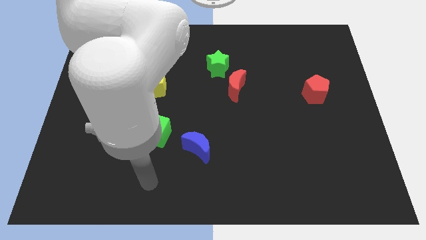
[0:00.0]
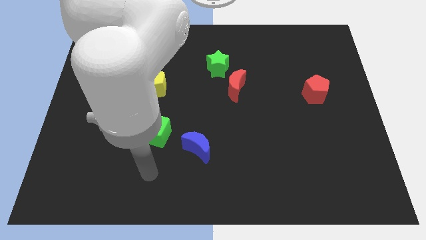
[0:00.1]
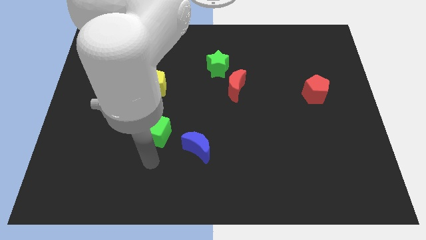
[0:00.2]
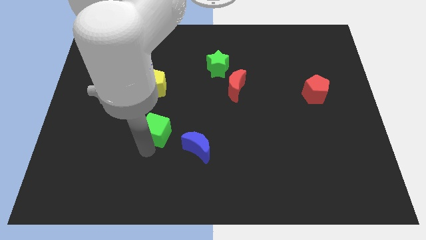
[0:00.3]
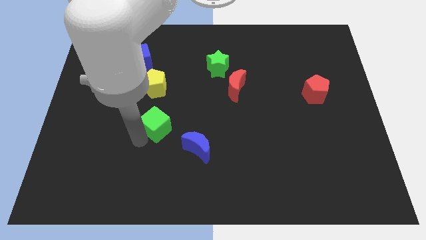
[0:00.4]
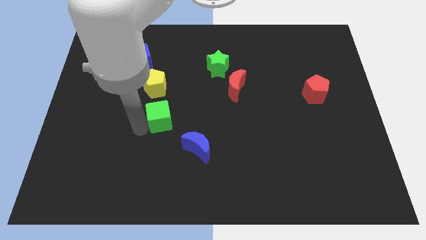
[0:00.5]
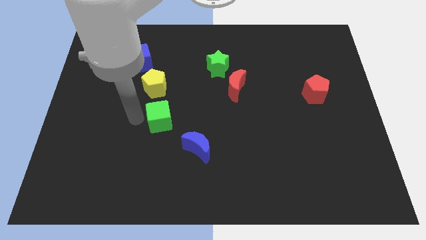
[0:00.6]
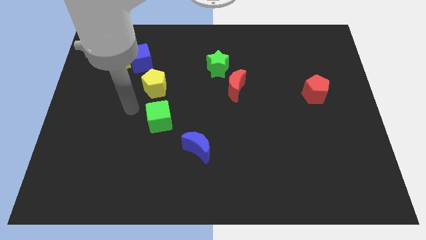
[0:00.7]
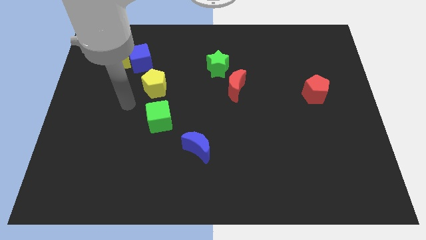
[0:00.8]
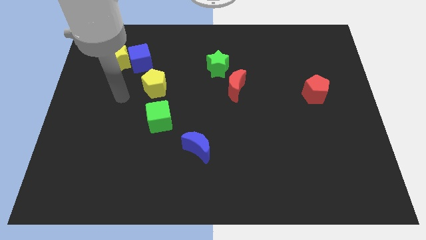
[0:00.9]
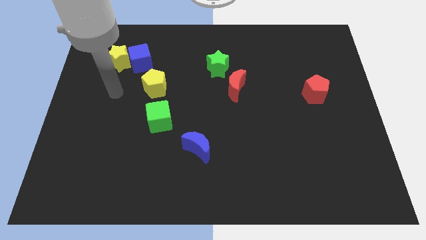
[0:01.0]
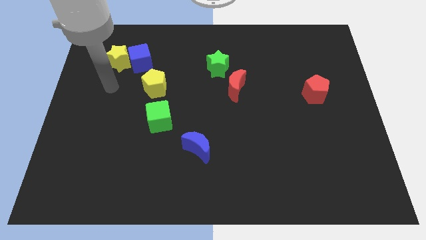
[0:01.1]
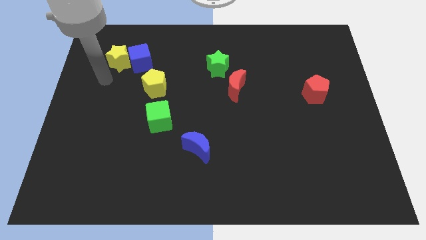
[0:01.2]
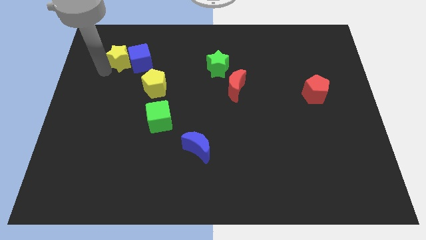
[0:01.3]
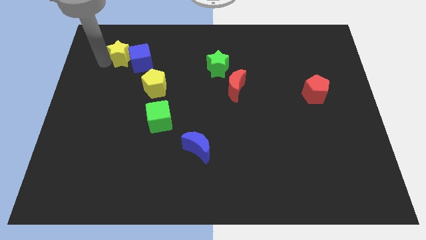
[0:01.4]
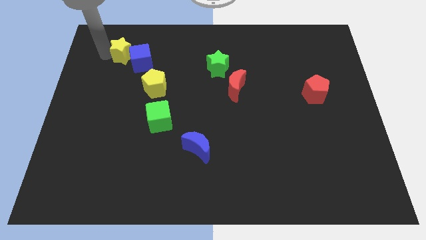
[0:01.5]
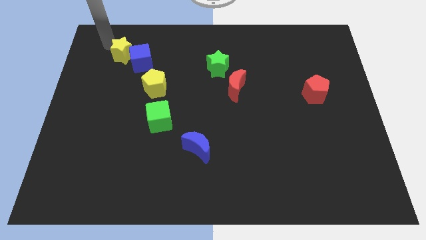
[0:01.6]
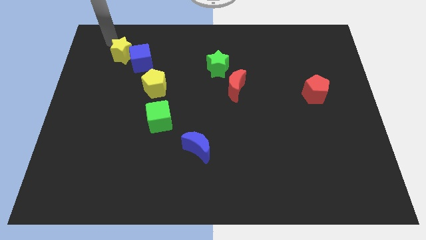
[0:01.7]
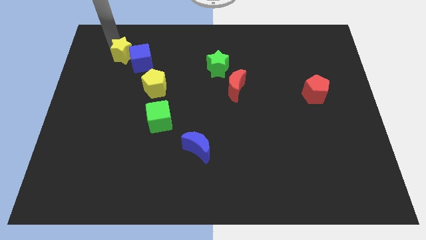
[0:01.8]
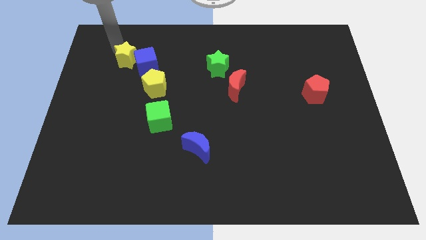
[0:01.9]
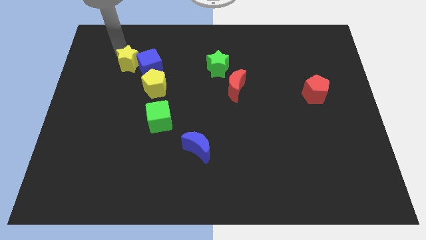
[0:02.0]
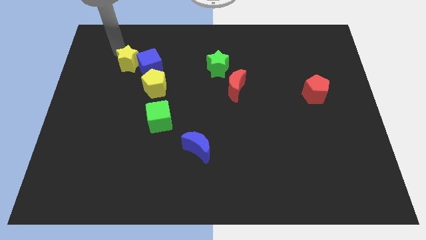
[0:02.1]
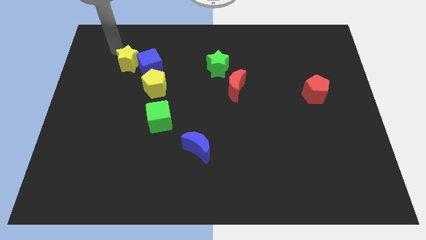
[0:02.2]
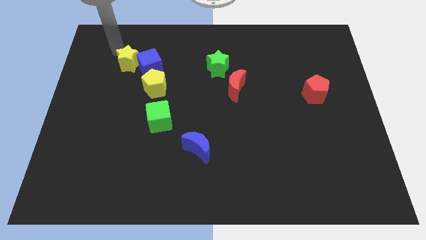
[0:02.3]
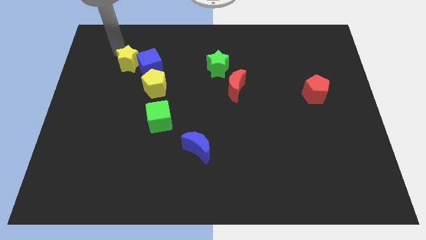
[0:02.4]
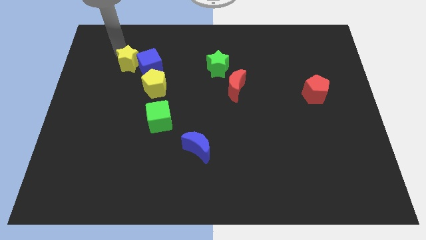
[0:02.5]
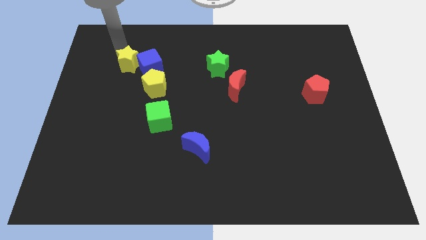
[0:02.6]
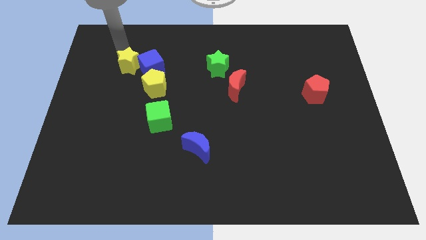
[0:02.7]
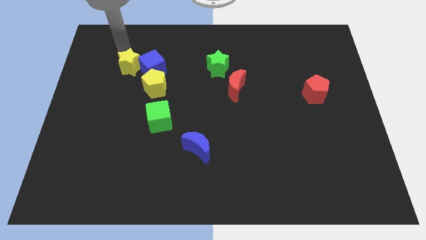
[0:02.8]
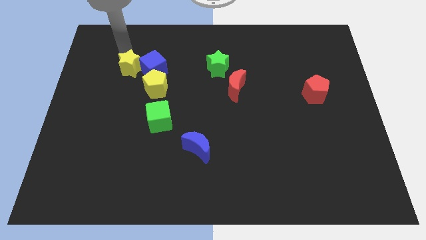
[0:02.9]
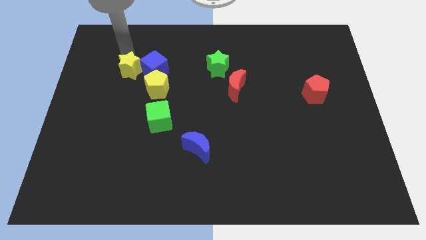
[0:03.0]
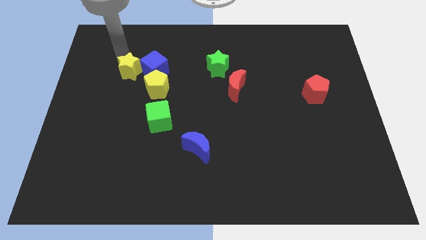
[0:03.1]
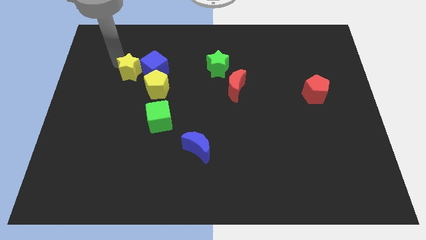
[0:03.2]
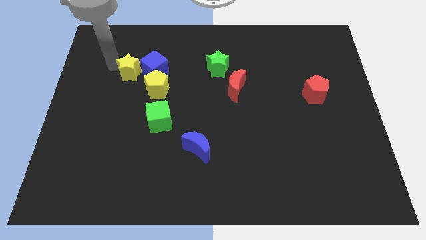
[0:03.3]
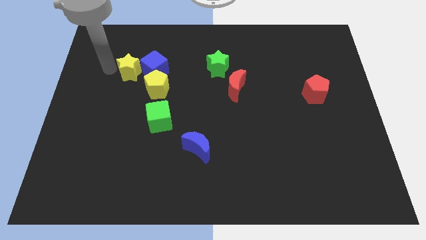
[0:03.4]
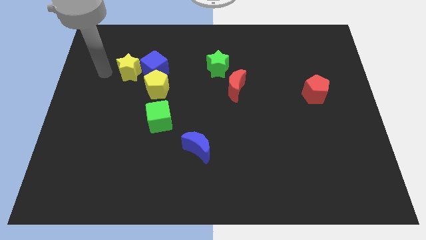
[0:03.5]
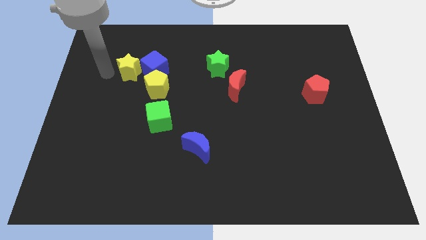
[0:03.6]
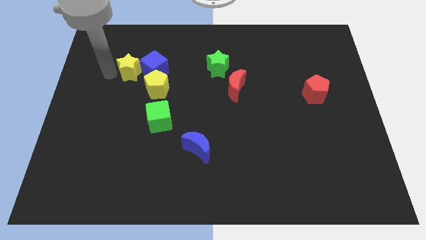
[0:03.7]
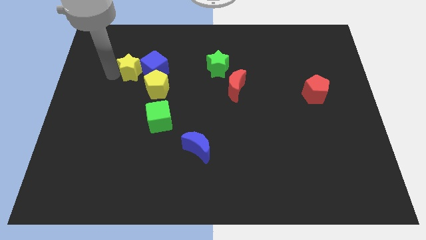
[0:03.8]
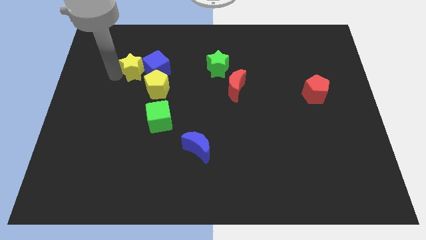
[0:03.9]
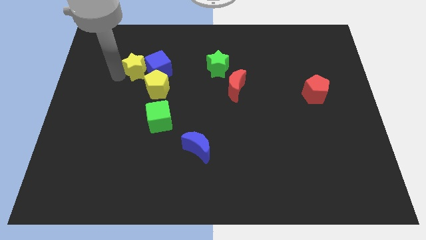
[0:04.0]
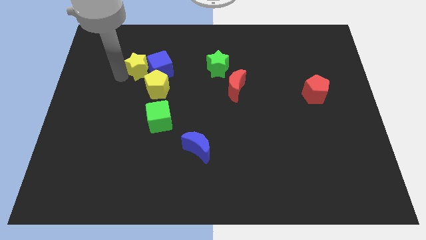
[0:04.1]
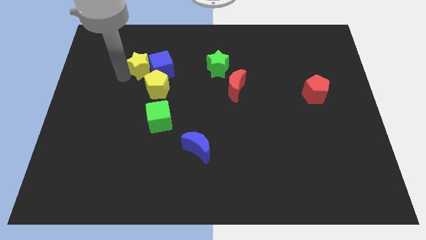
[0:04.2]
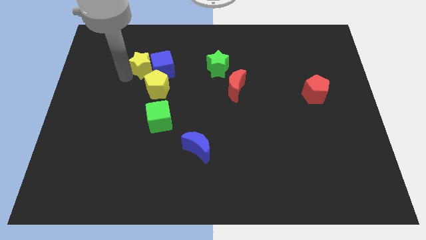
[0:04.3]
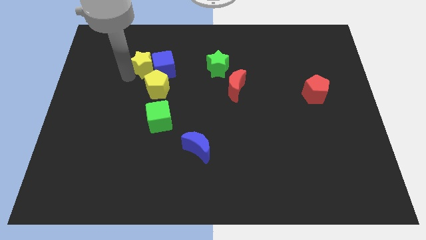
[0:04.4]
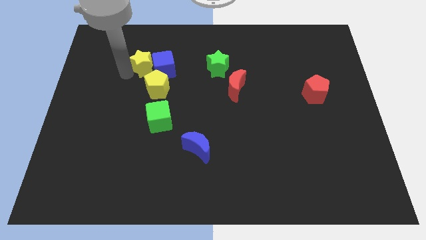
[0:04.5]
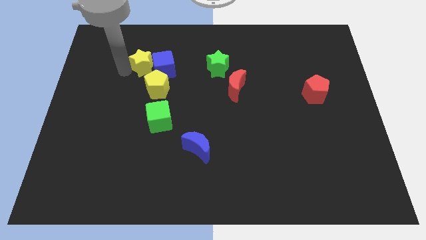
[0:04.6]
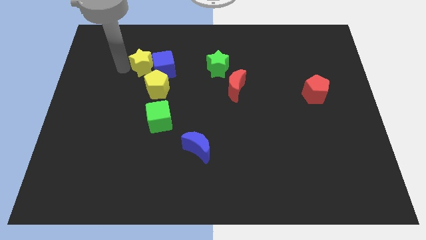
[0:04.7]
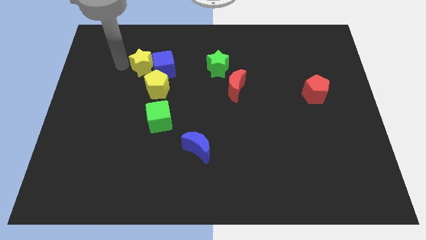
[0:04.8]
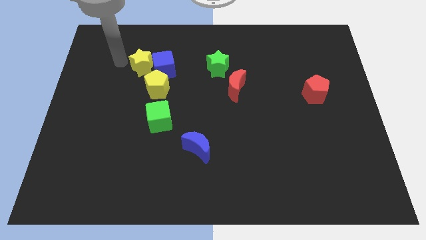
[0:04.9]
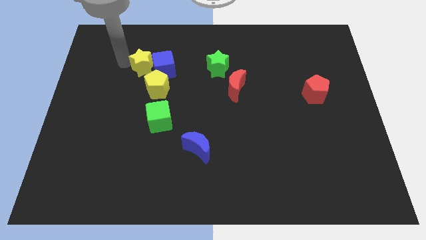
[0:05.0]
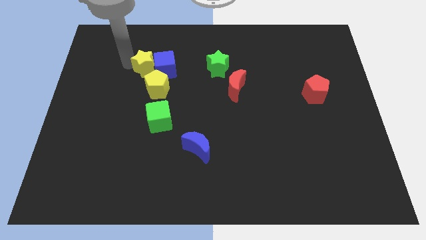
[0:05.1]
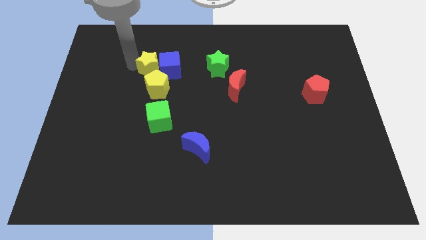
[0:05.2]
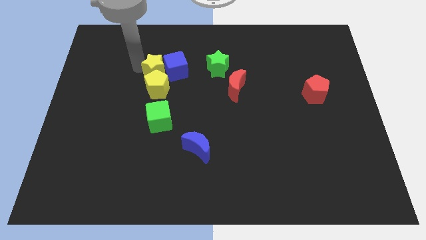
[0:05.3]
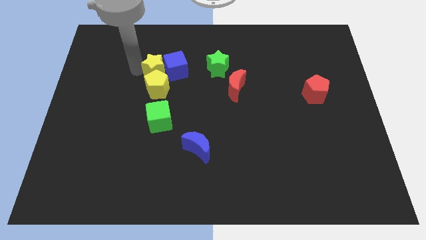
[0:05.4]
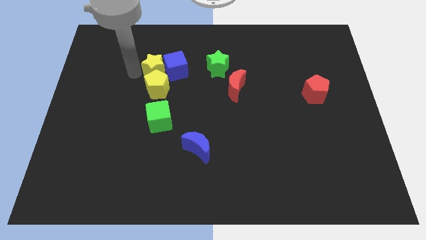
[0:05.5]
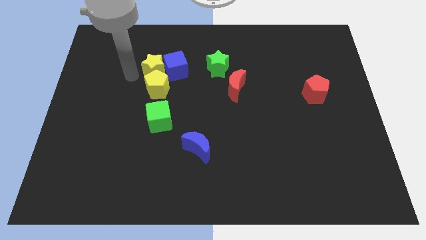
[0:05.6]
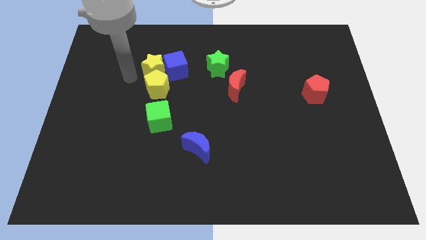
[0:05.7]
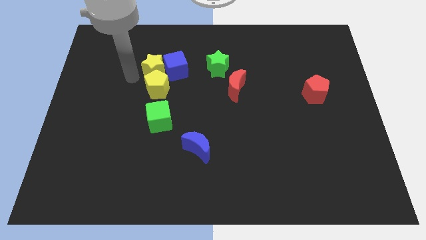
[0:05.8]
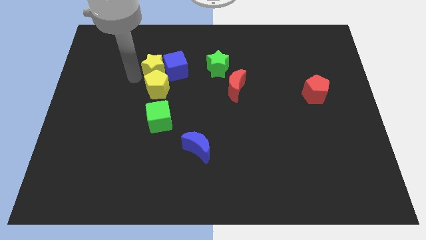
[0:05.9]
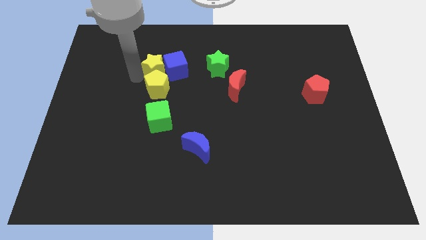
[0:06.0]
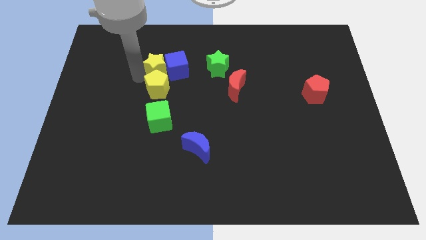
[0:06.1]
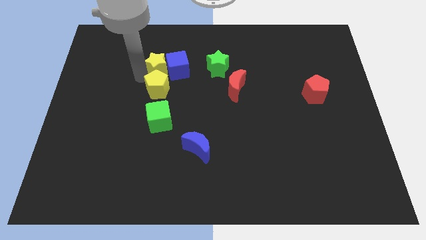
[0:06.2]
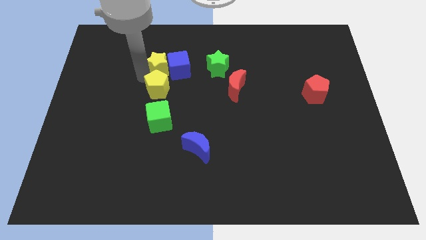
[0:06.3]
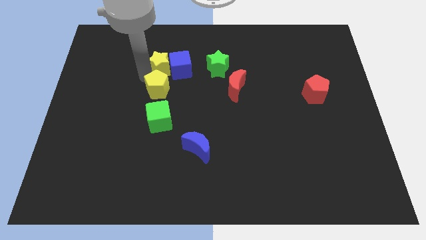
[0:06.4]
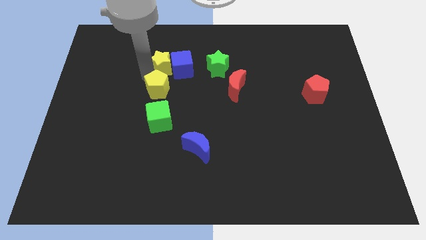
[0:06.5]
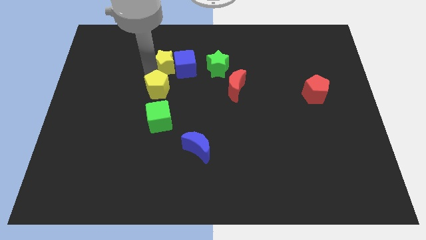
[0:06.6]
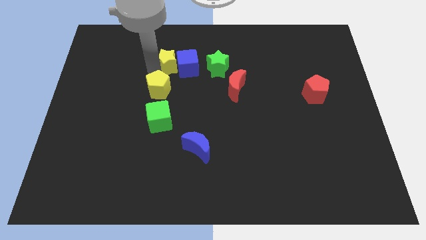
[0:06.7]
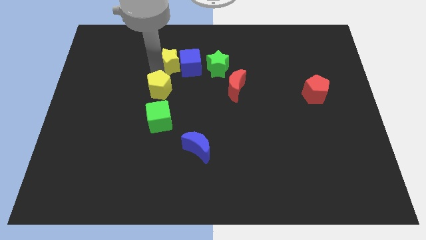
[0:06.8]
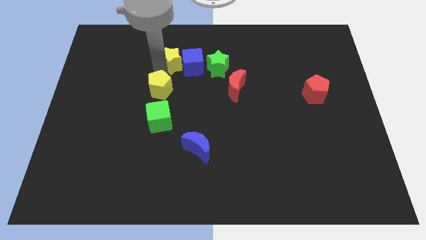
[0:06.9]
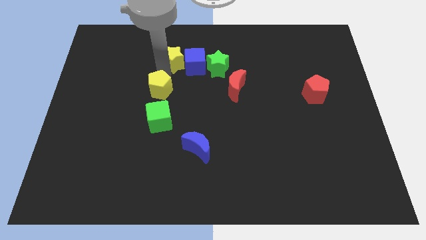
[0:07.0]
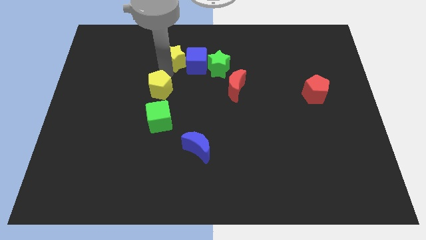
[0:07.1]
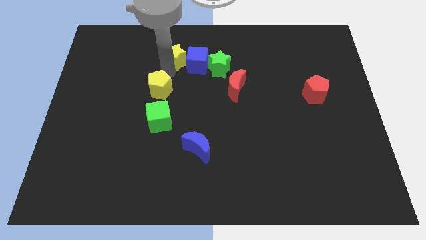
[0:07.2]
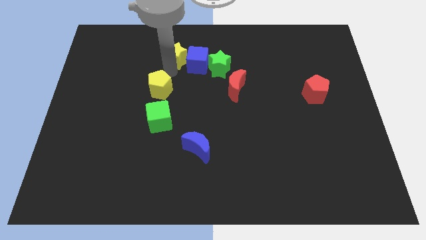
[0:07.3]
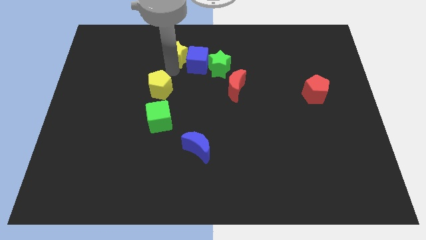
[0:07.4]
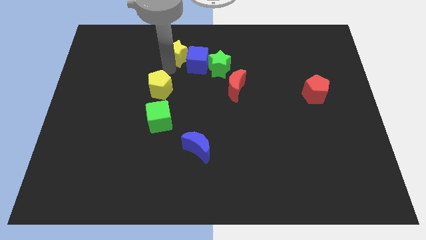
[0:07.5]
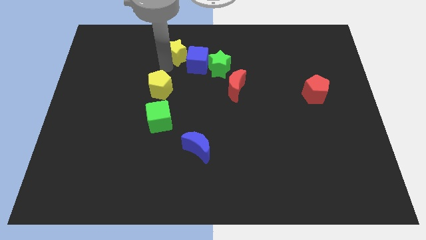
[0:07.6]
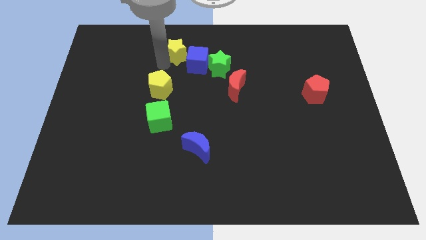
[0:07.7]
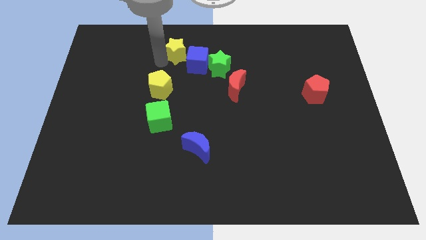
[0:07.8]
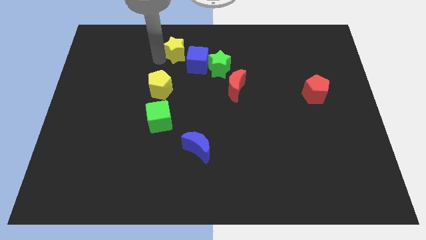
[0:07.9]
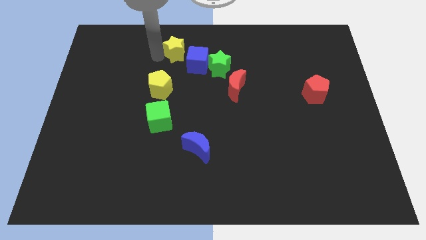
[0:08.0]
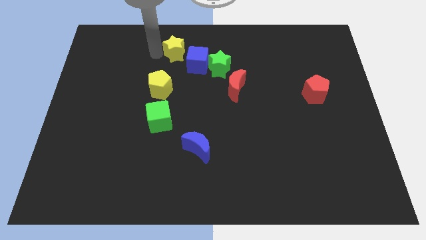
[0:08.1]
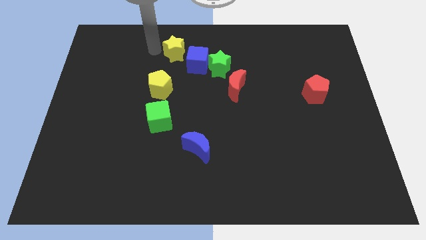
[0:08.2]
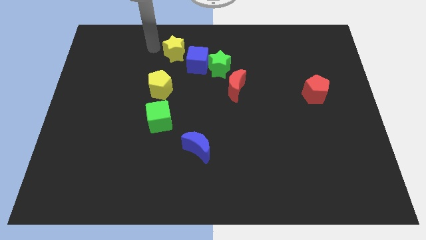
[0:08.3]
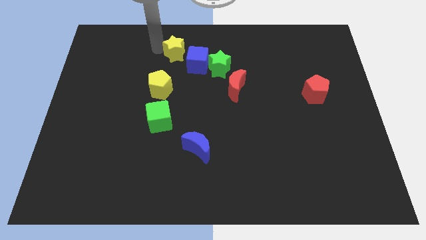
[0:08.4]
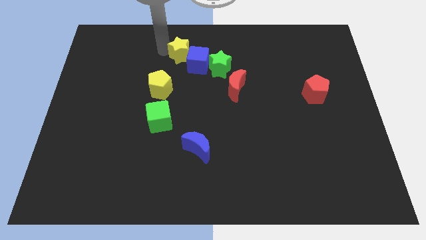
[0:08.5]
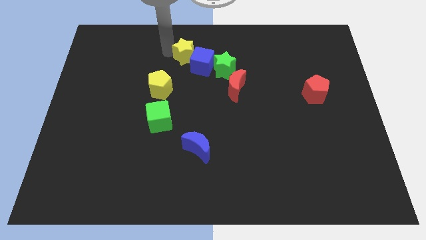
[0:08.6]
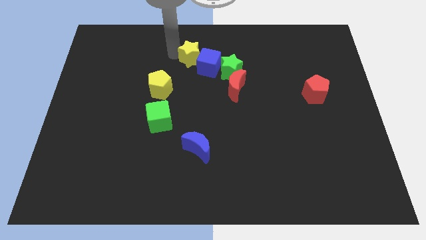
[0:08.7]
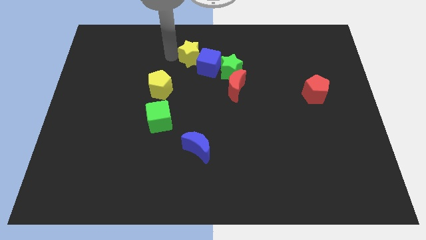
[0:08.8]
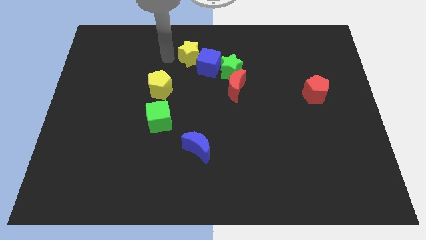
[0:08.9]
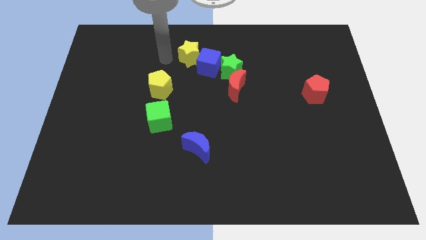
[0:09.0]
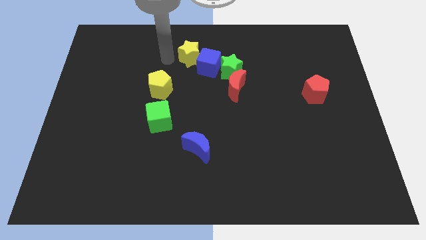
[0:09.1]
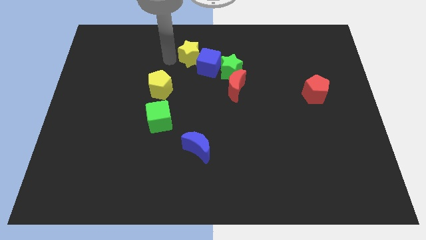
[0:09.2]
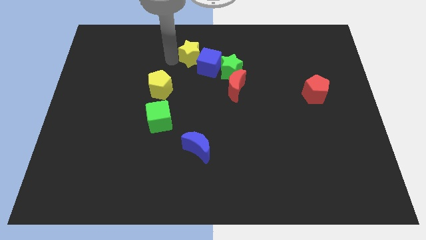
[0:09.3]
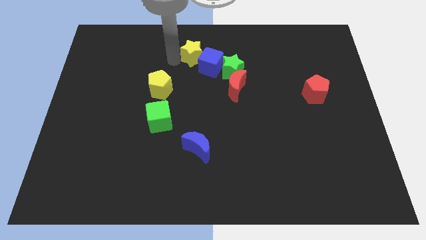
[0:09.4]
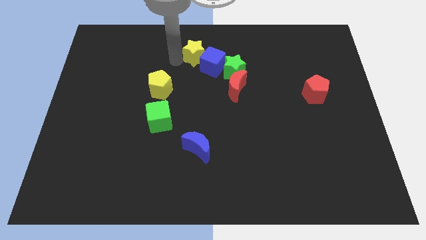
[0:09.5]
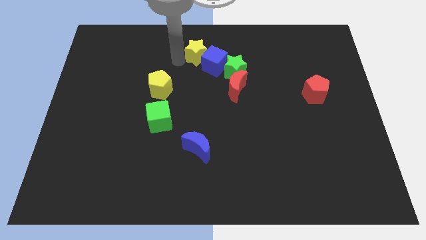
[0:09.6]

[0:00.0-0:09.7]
slide the yellow star right
